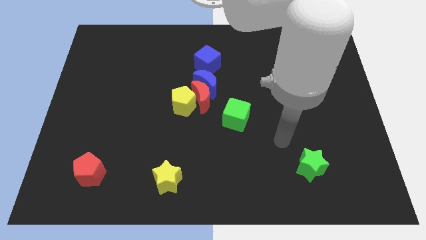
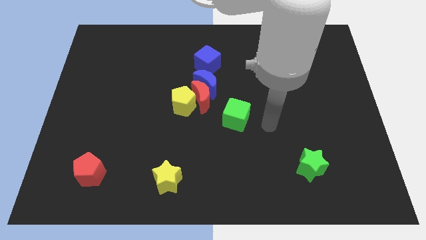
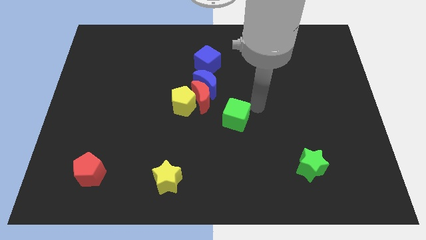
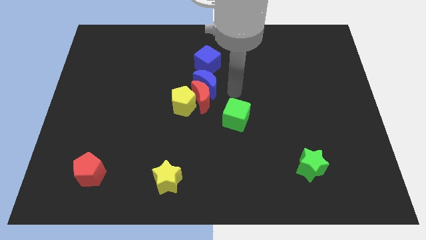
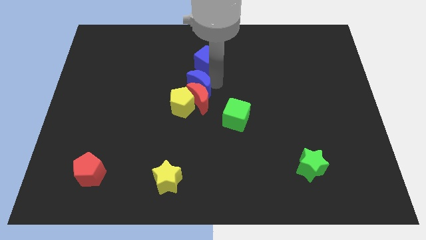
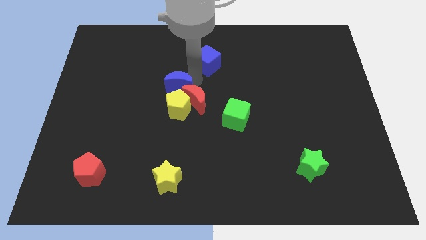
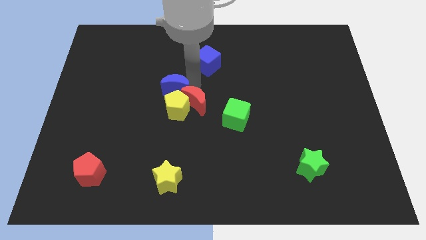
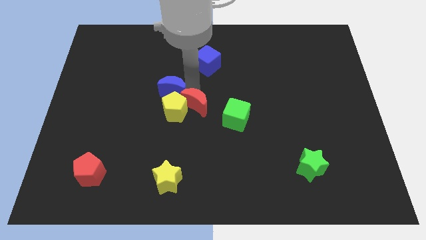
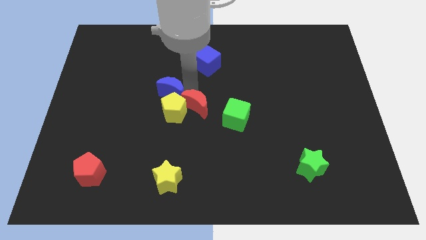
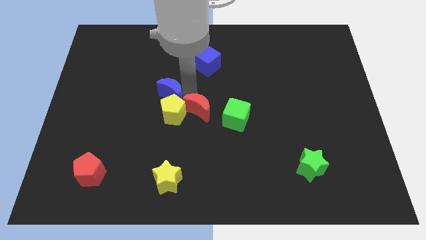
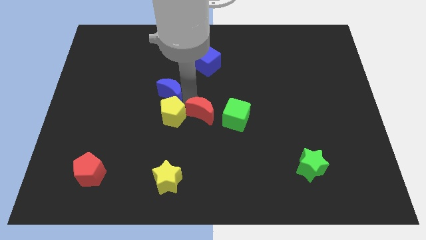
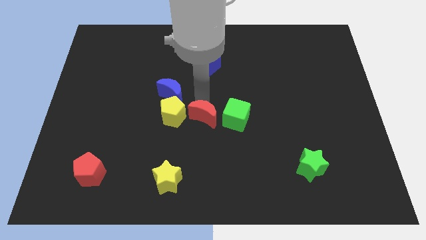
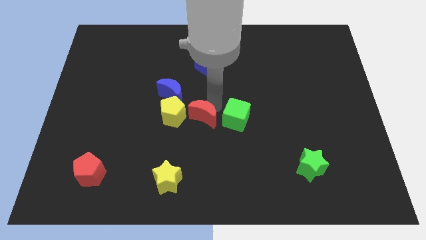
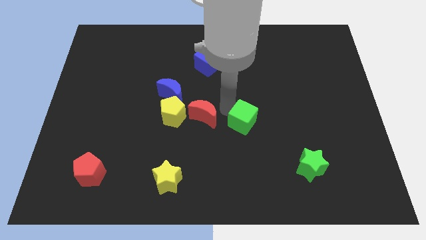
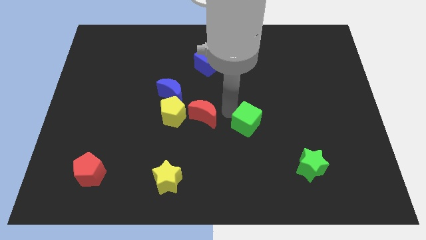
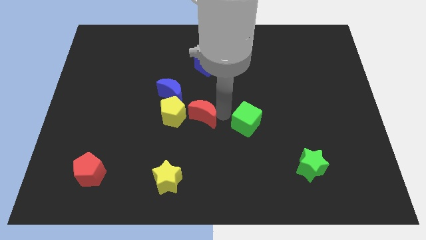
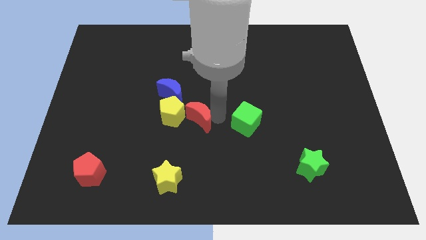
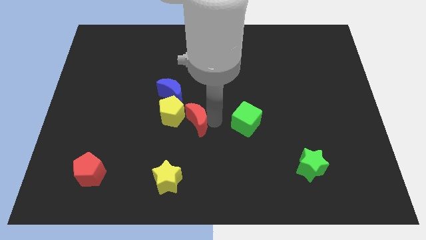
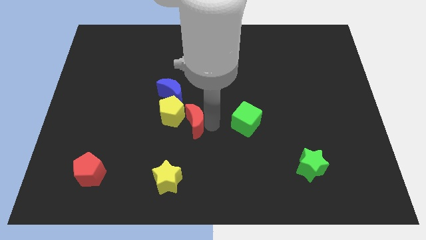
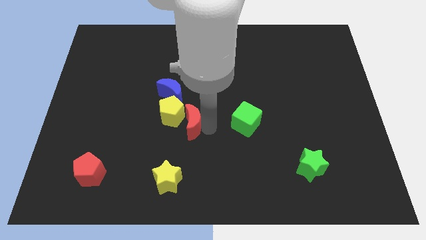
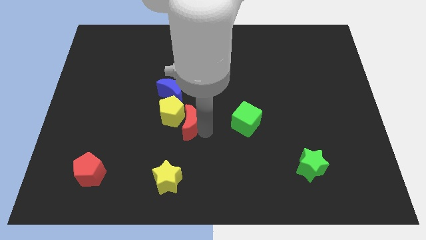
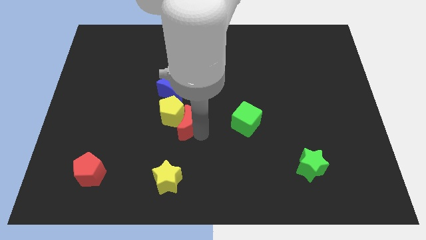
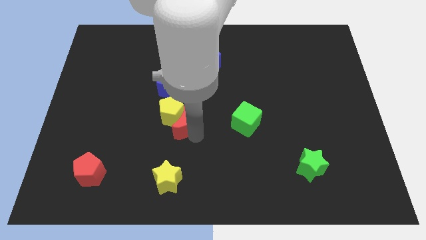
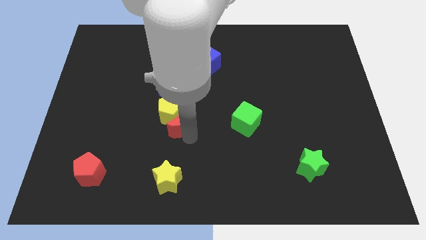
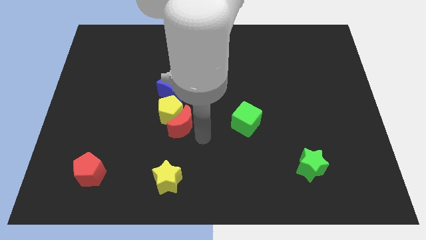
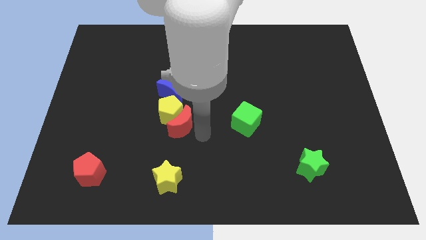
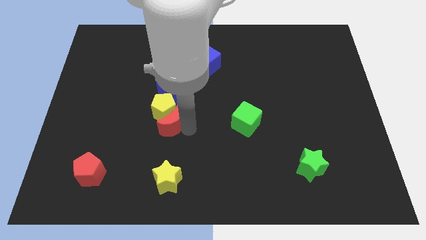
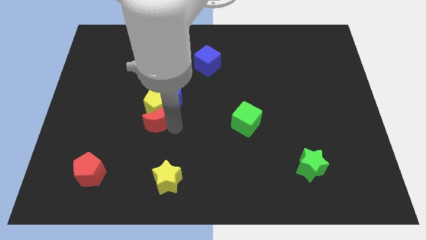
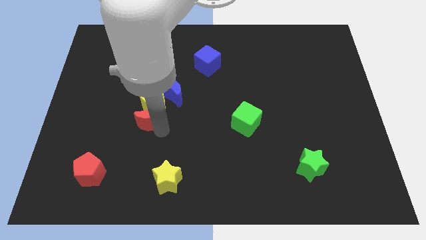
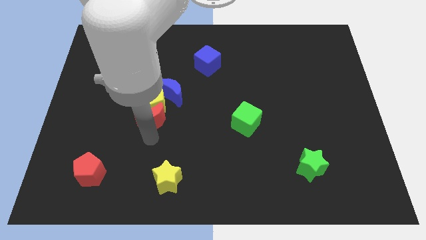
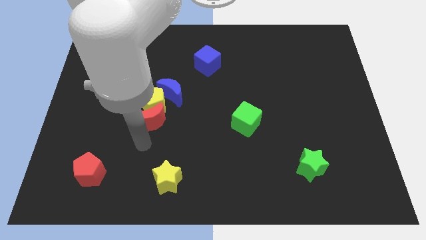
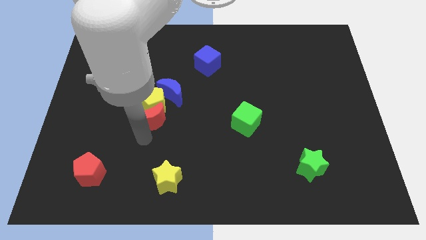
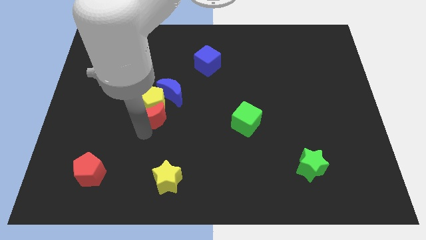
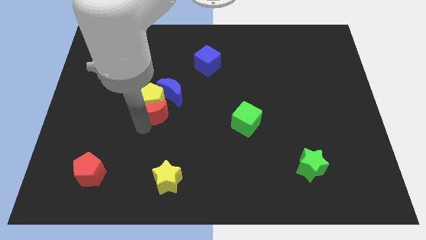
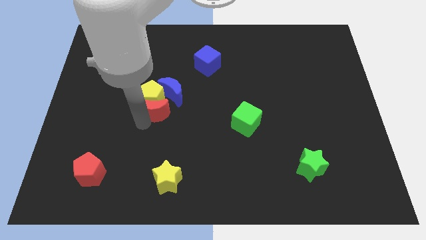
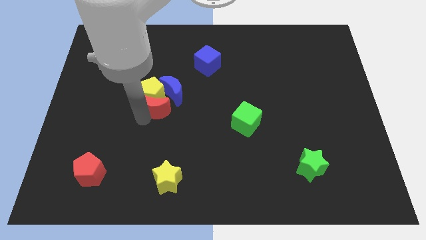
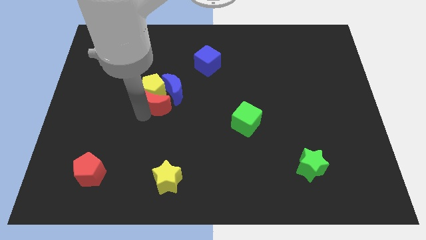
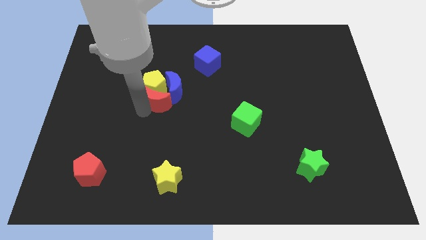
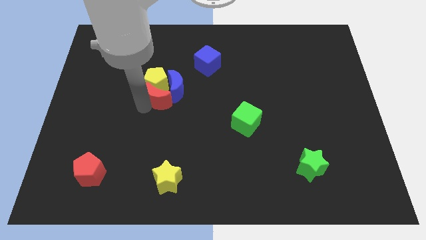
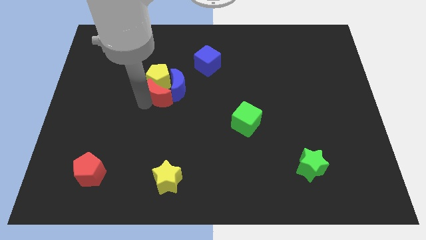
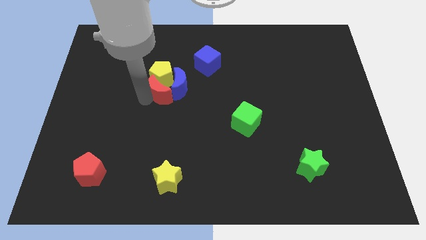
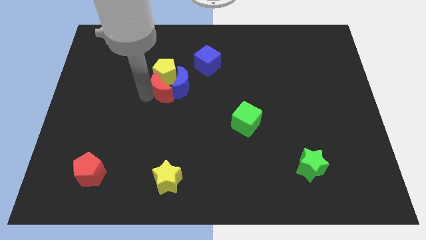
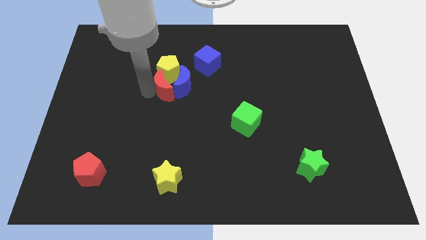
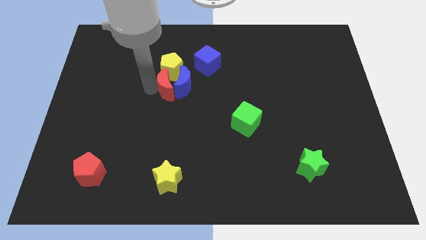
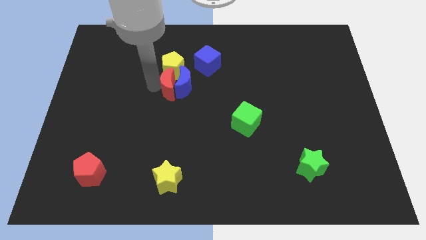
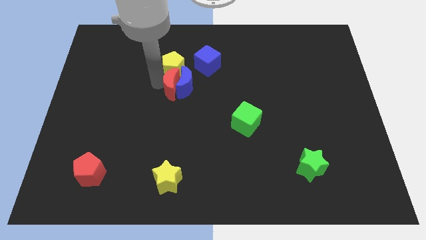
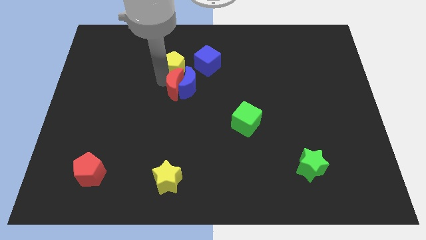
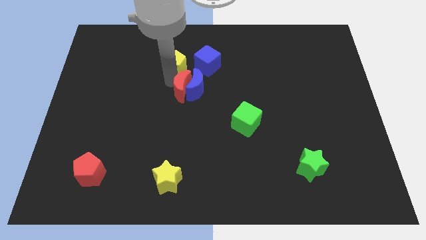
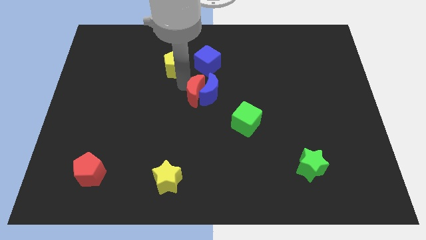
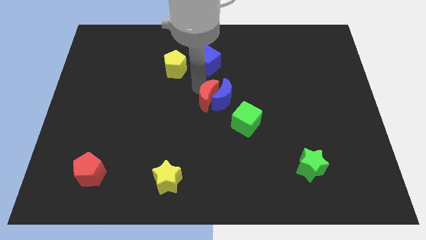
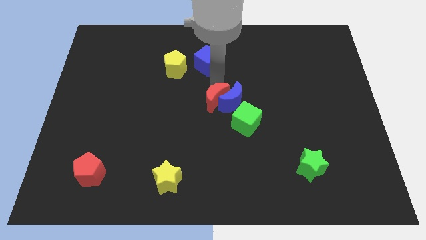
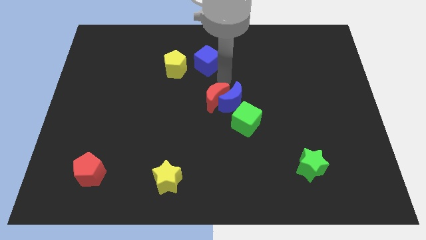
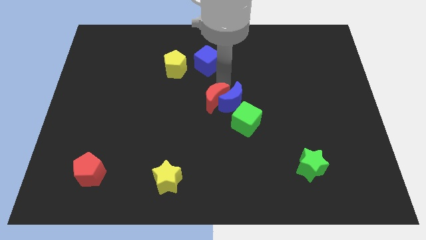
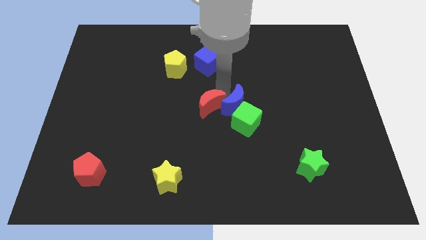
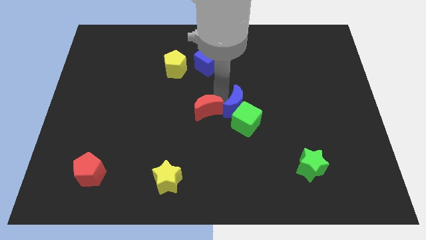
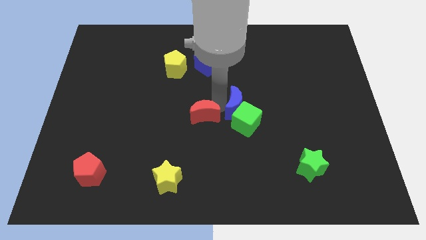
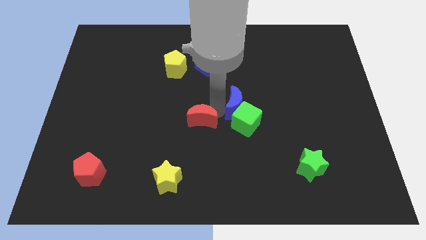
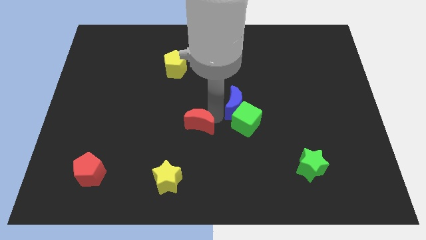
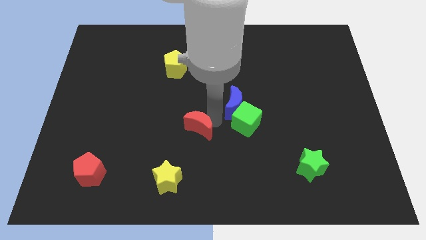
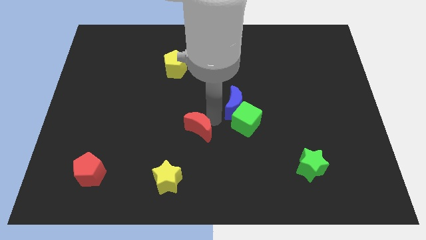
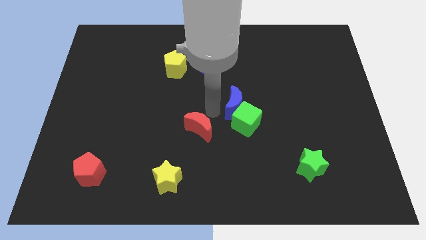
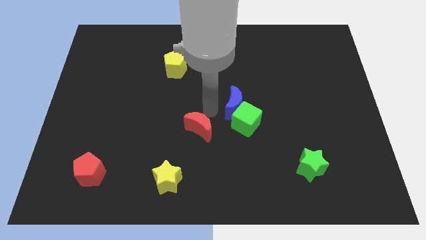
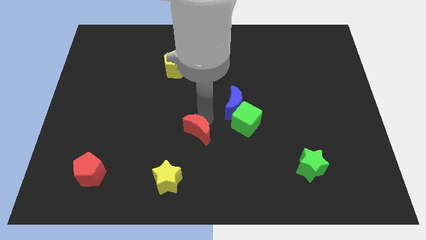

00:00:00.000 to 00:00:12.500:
move the red moon away from the group

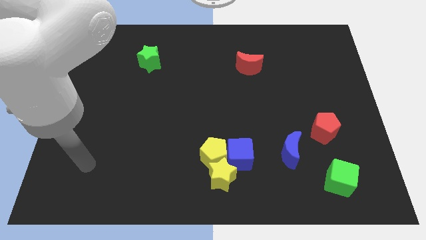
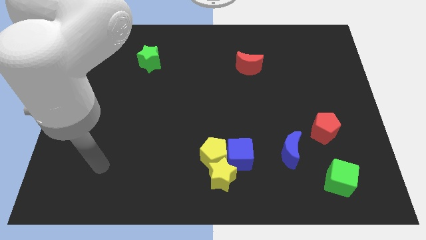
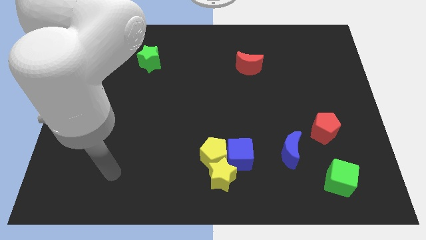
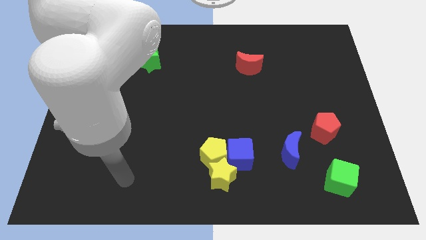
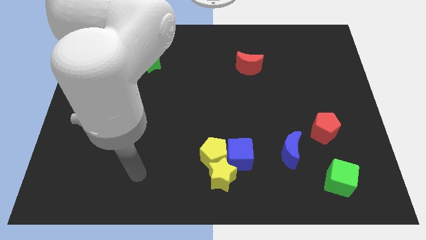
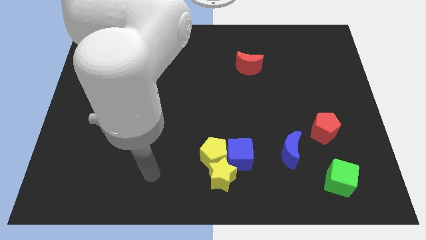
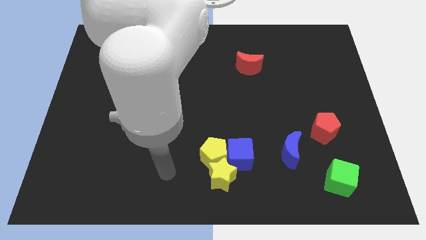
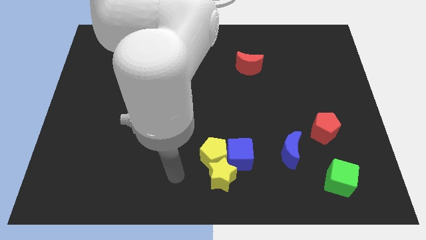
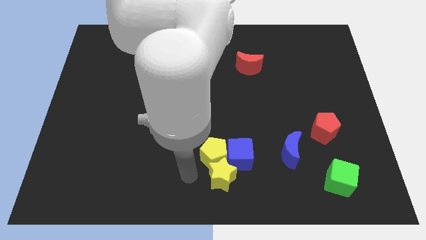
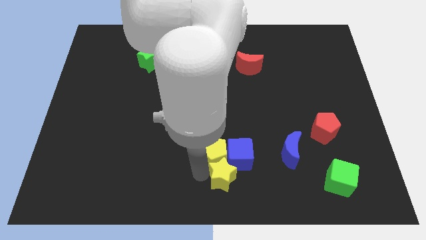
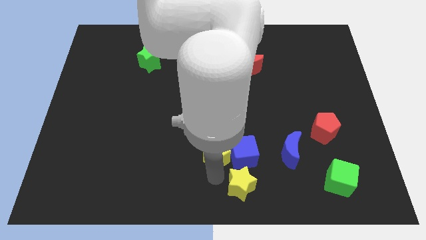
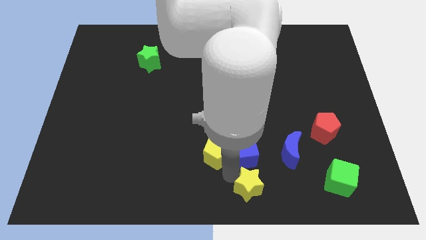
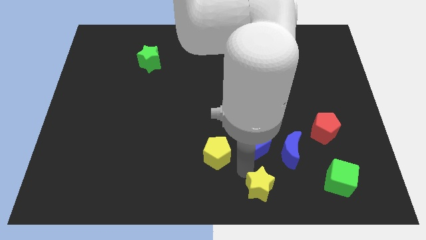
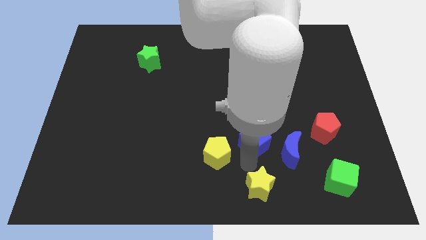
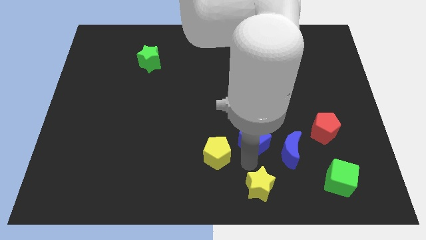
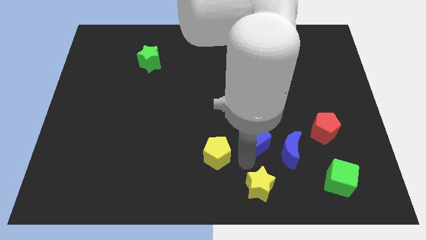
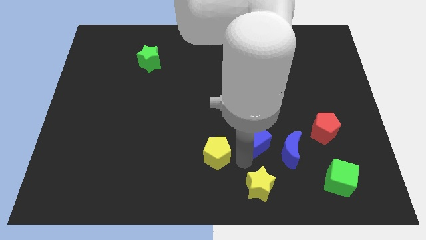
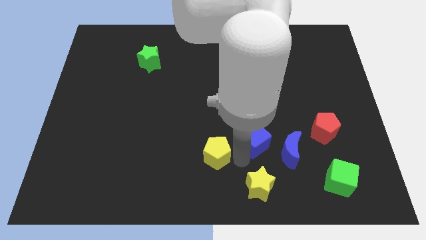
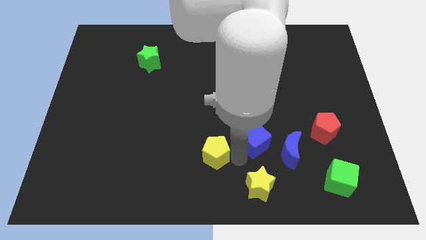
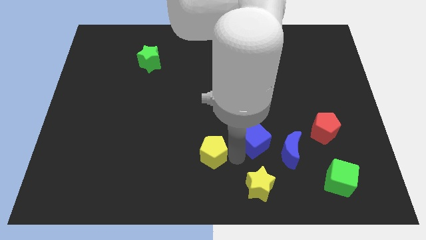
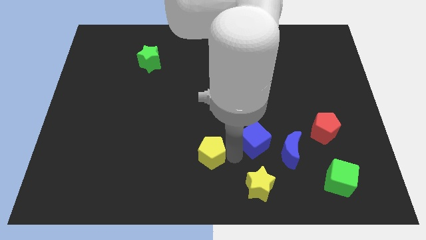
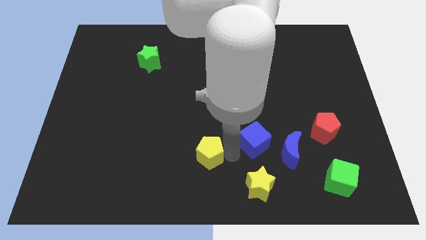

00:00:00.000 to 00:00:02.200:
separate the yellow pentagon from the yellow star and blue cube

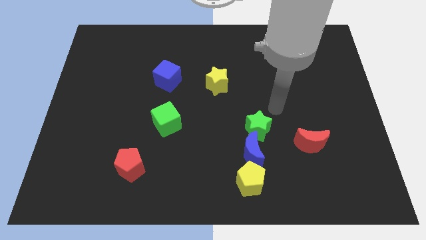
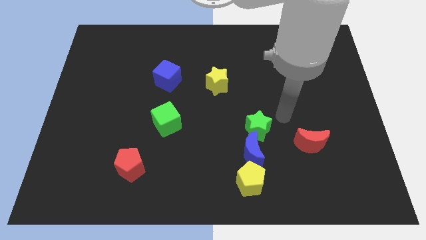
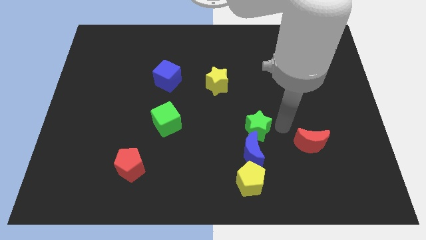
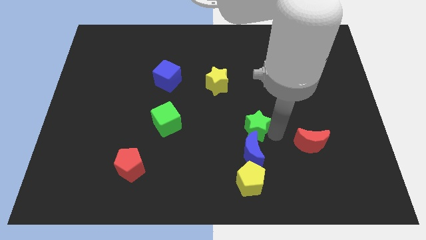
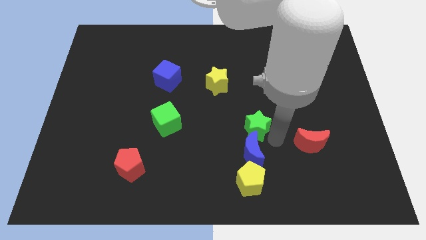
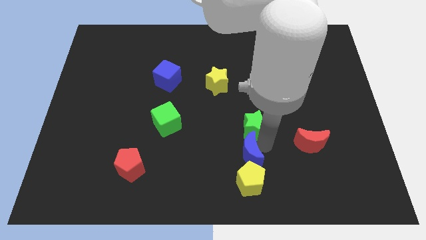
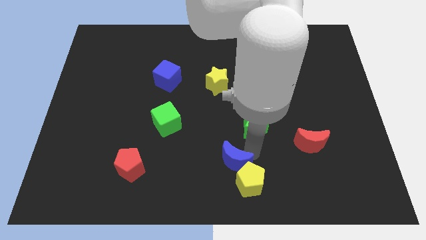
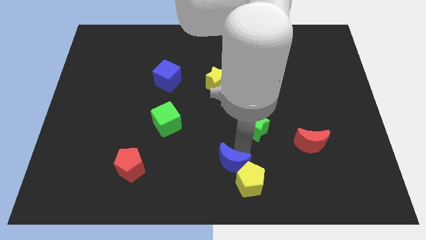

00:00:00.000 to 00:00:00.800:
pull the green star apart from the blue moon

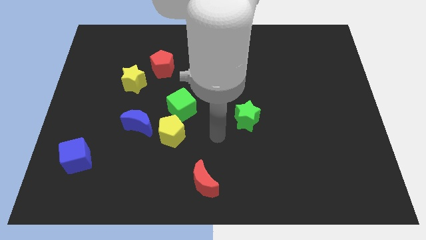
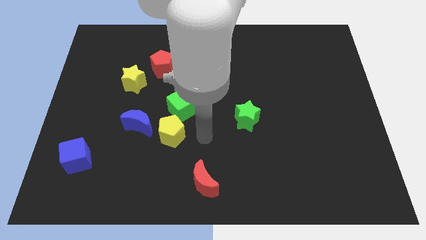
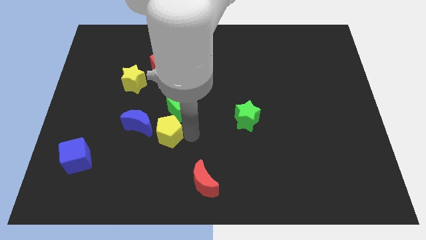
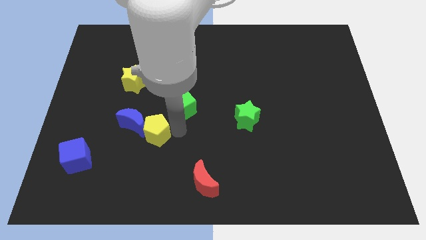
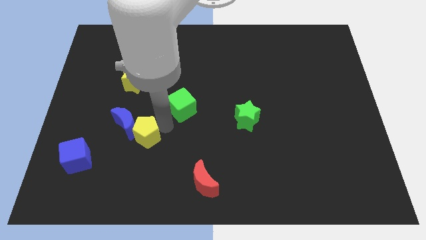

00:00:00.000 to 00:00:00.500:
pull the green cube apart from the yellow pentagon
